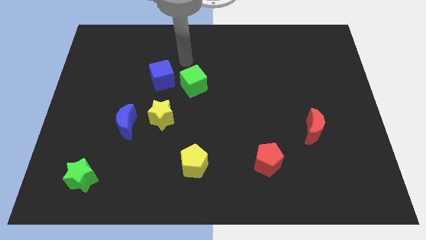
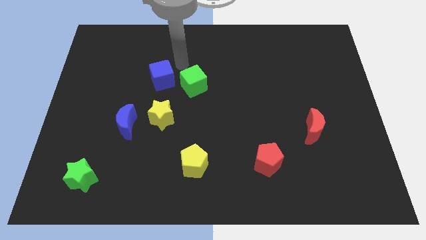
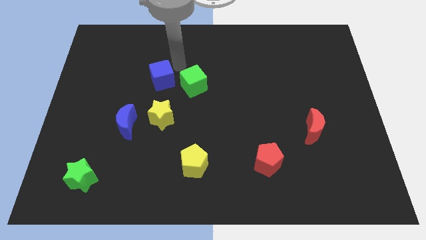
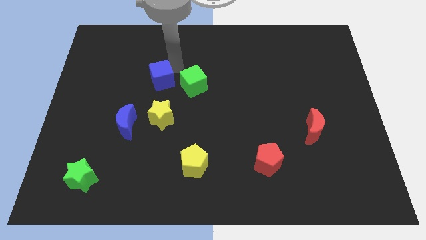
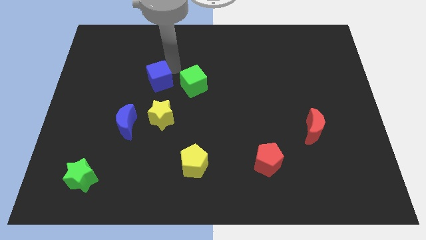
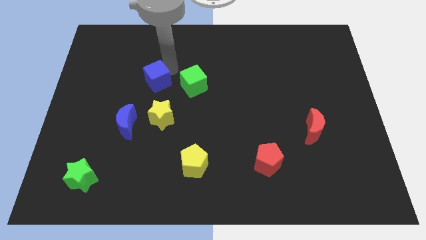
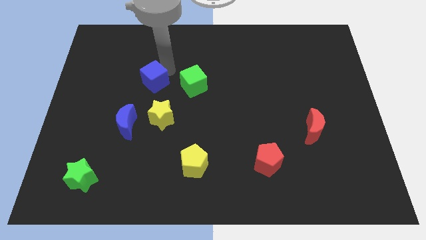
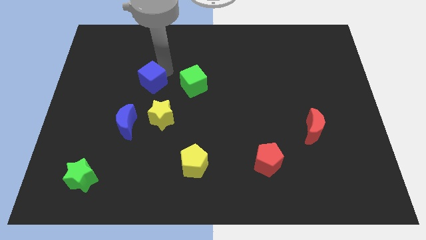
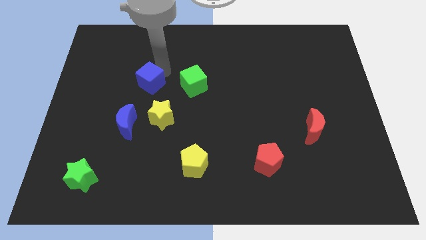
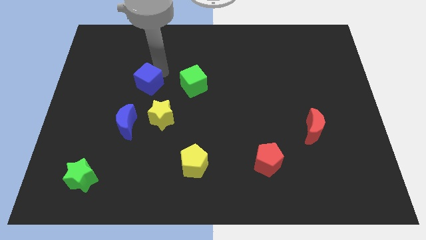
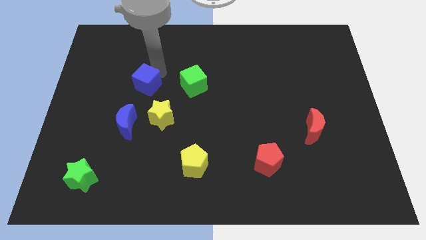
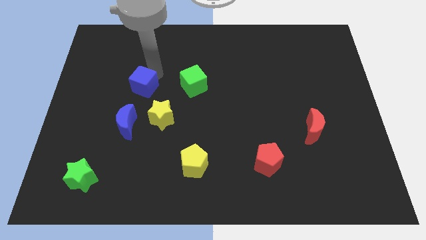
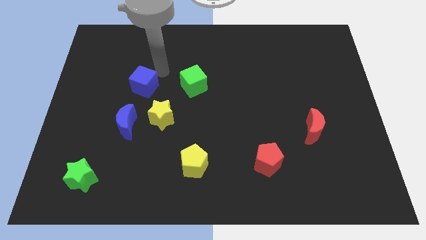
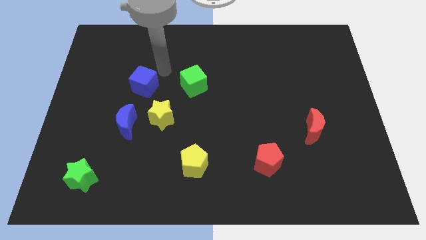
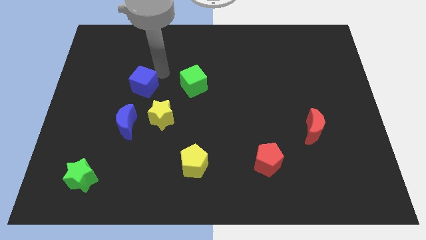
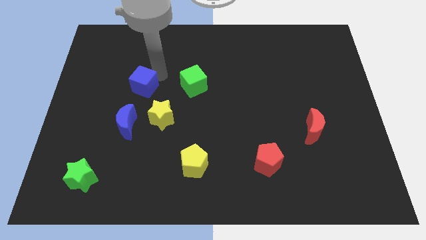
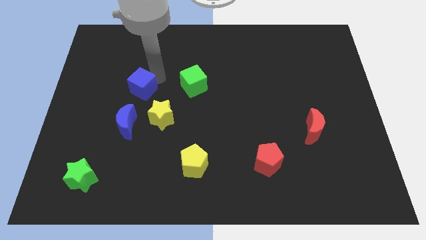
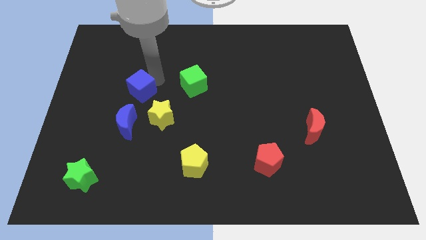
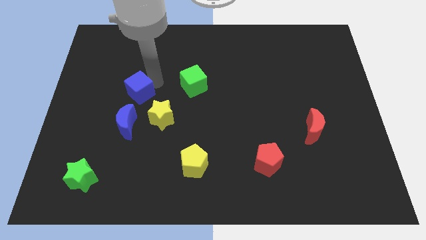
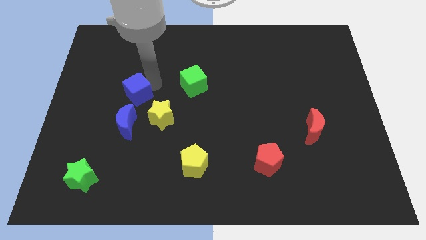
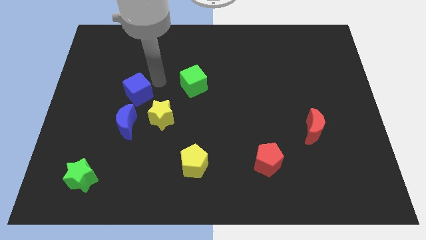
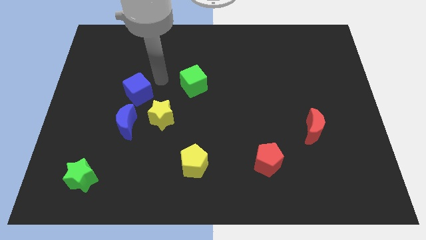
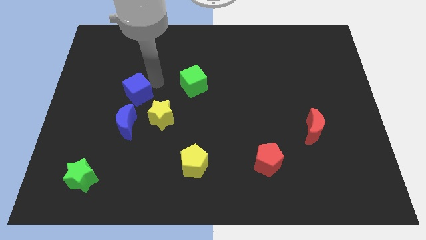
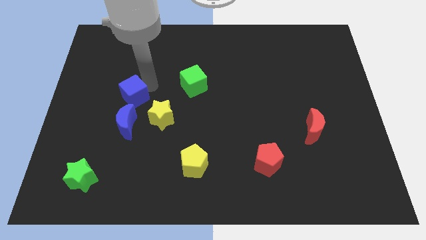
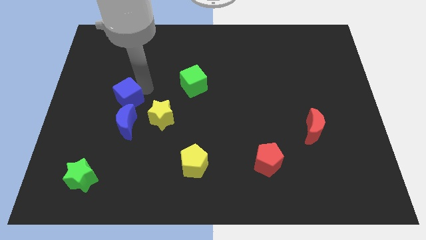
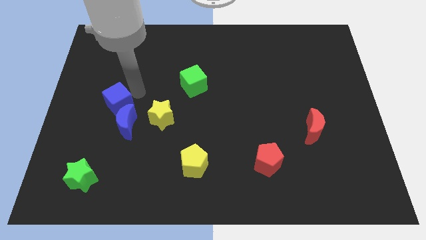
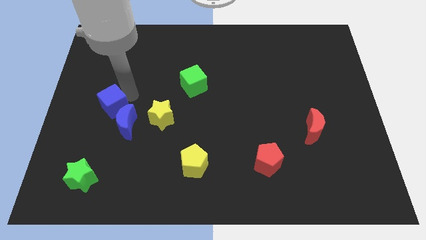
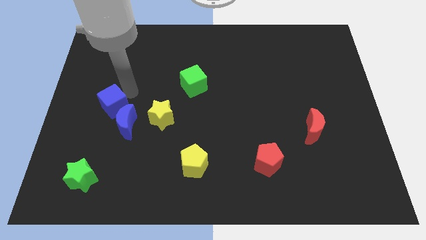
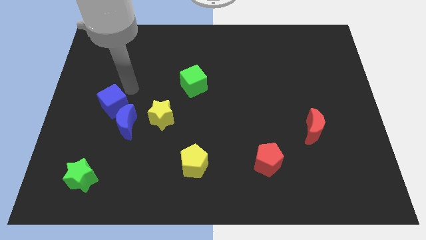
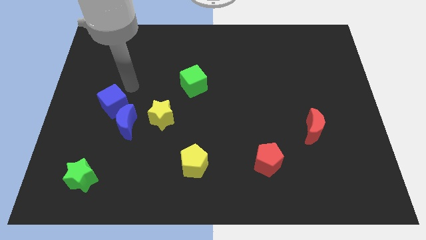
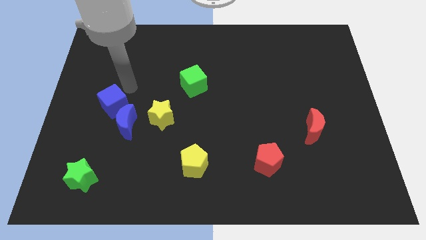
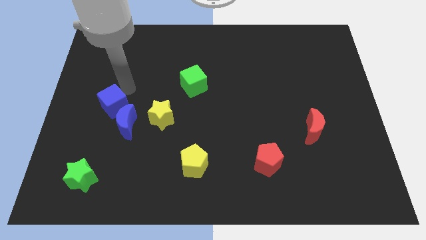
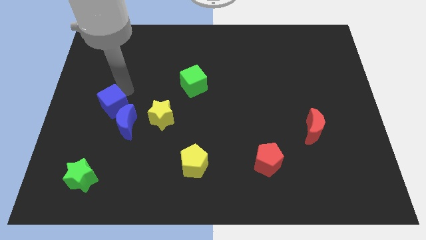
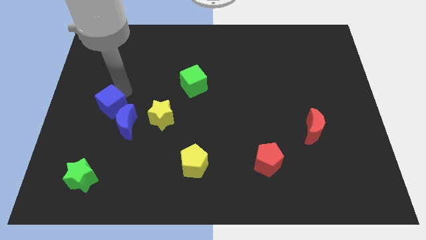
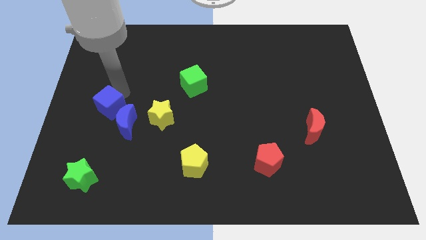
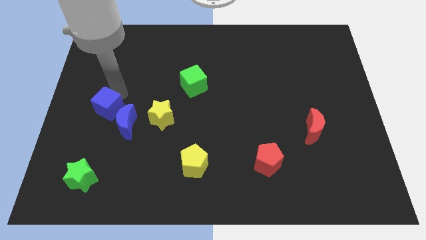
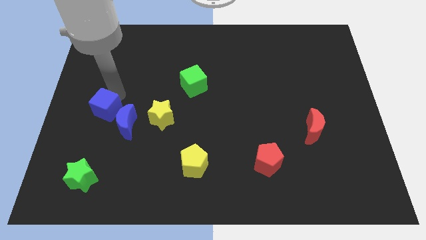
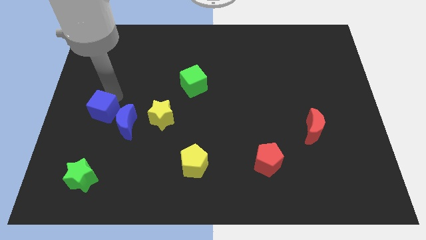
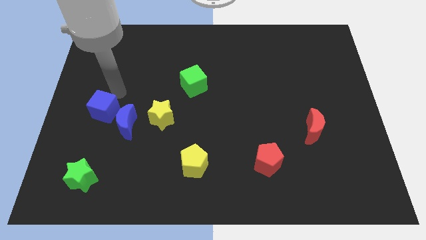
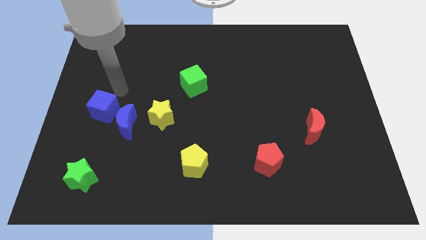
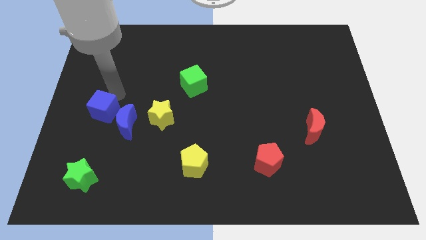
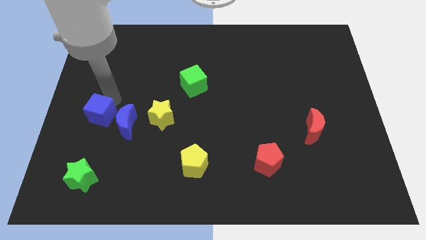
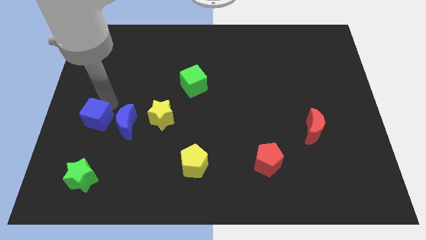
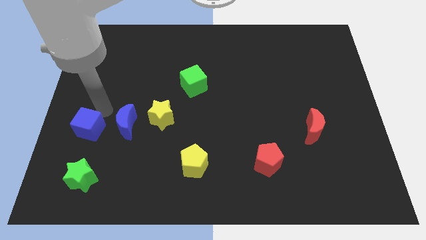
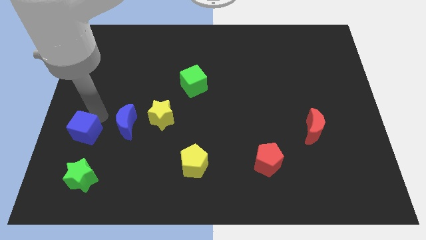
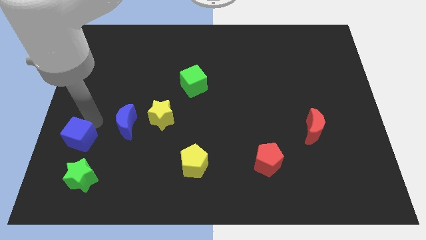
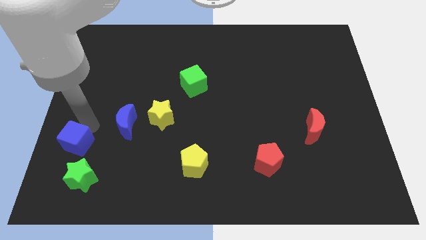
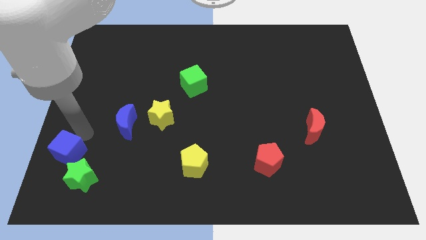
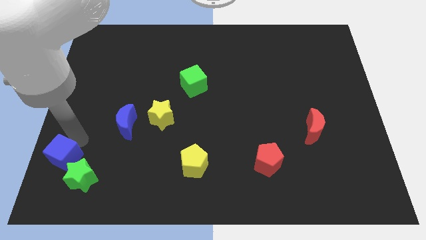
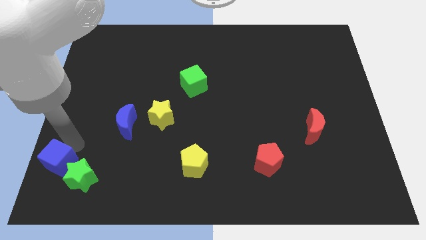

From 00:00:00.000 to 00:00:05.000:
move the blue cube to the bottom left corner

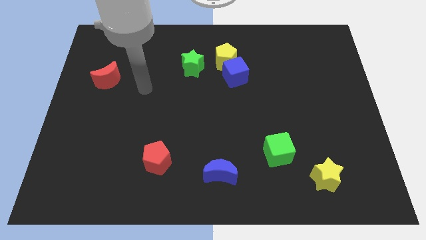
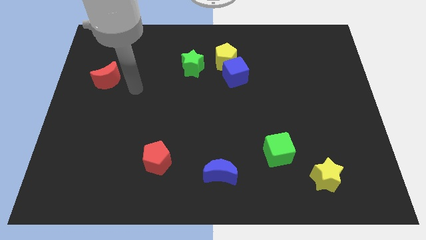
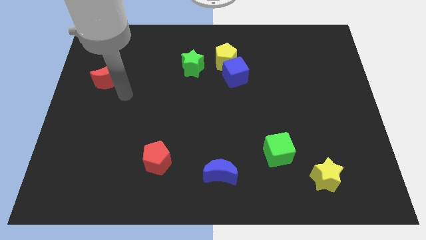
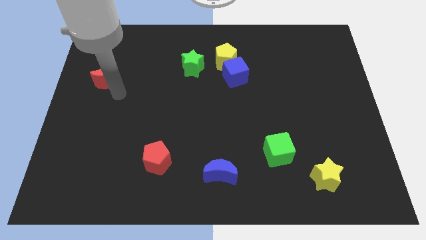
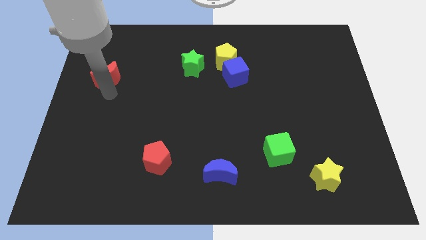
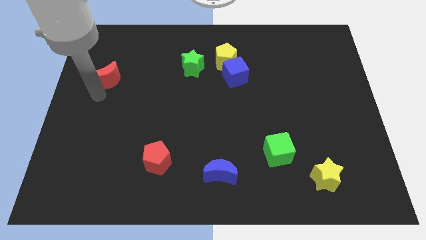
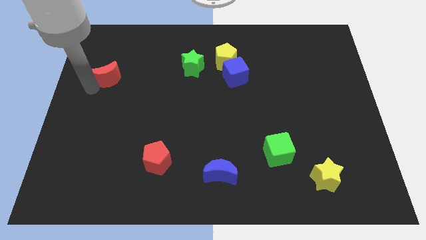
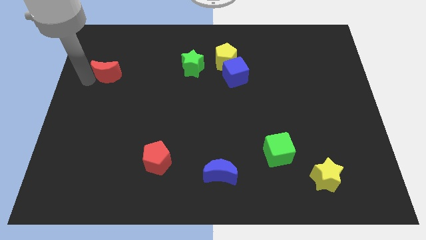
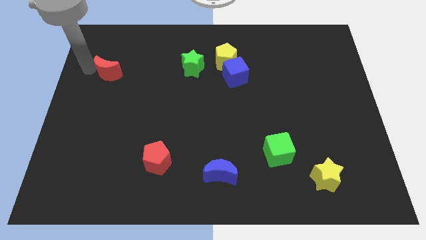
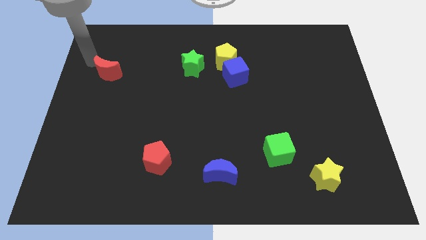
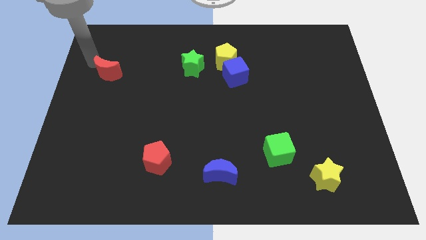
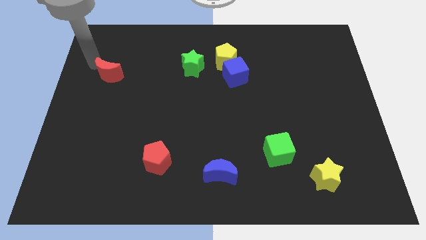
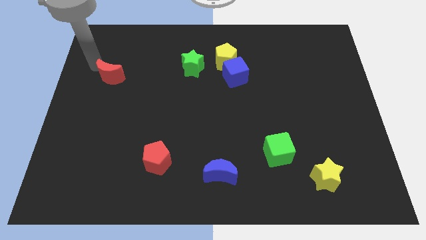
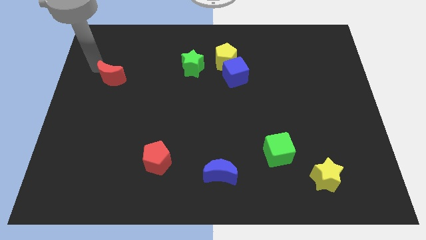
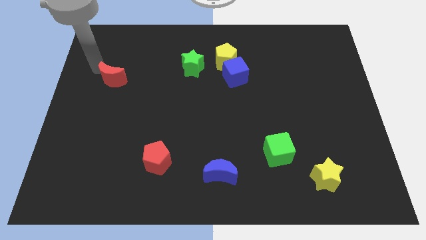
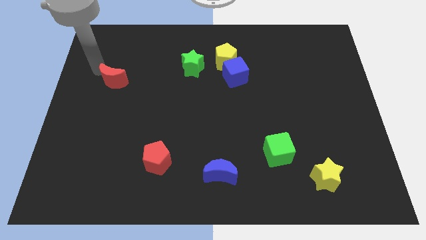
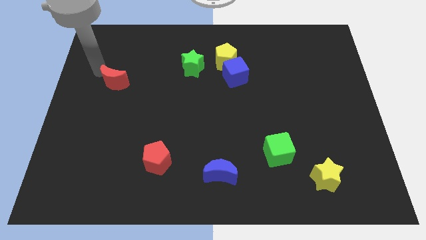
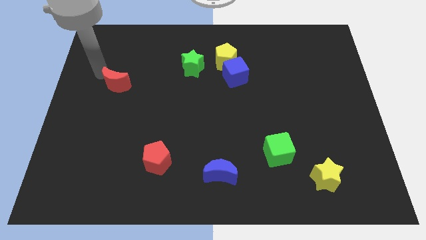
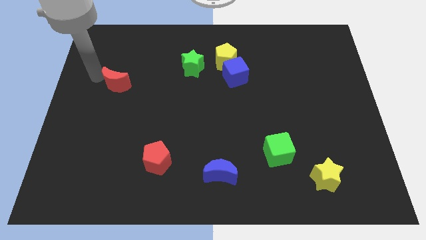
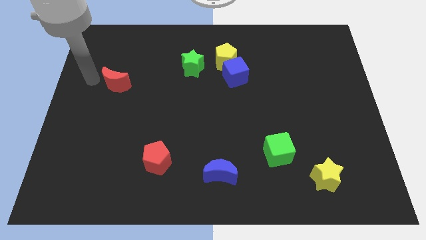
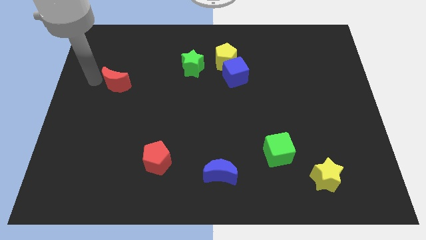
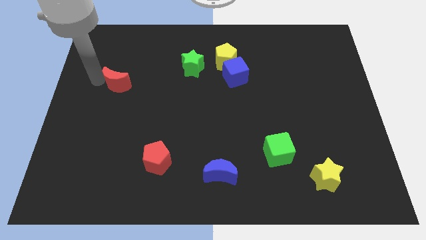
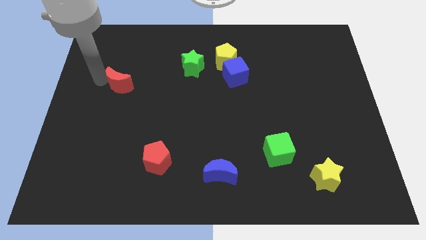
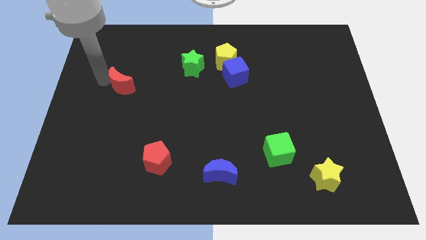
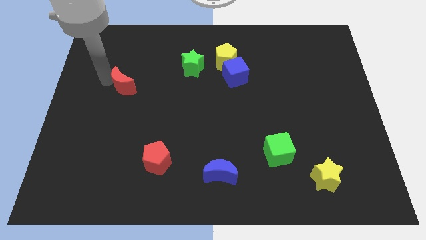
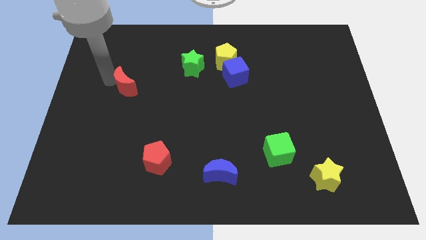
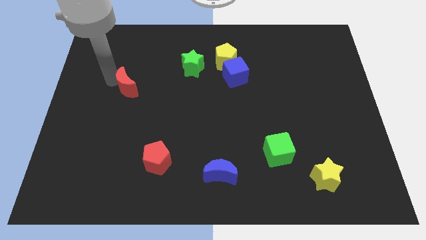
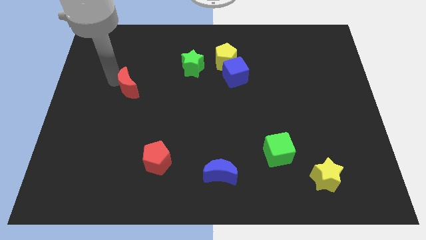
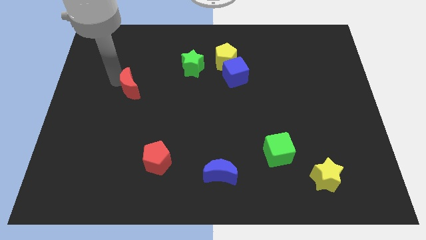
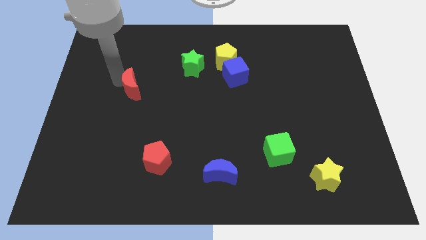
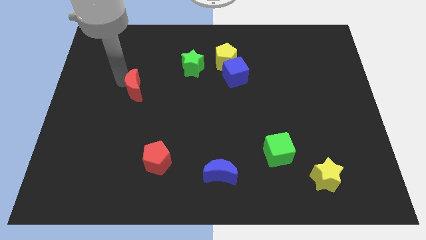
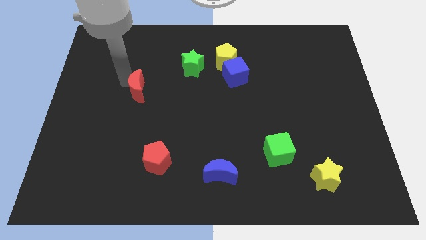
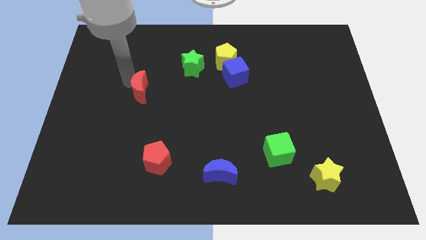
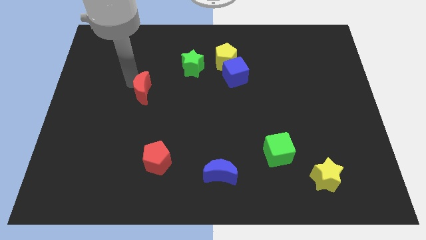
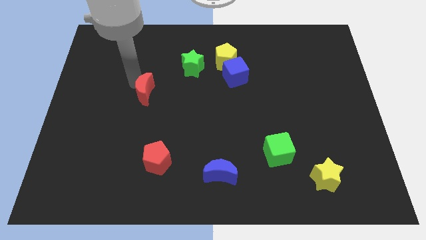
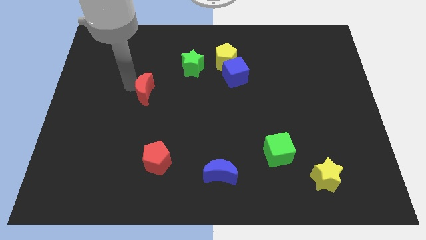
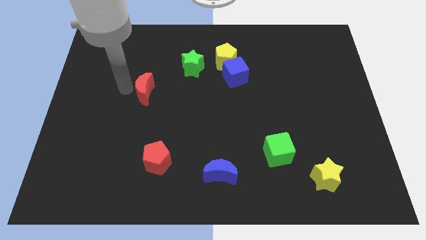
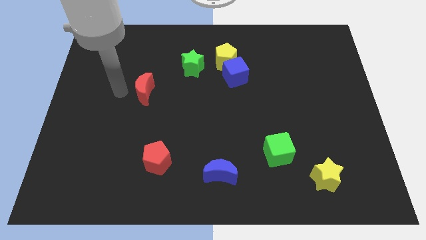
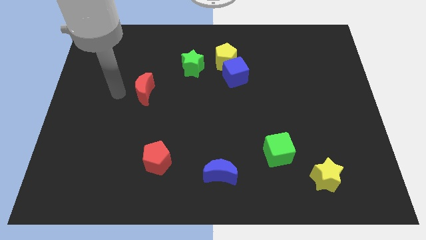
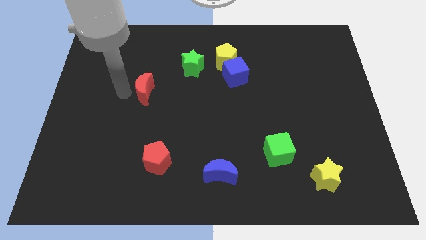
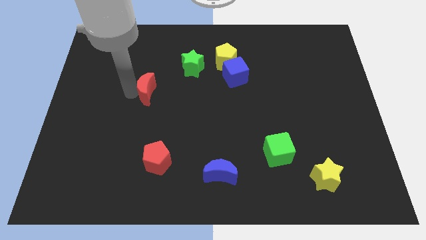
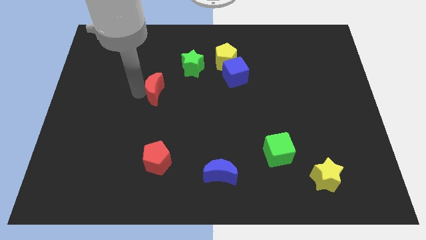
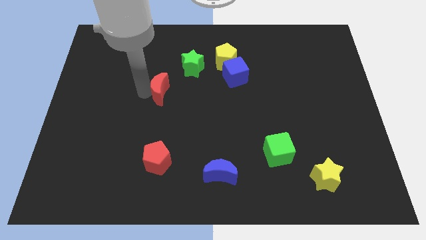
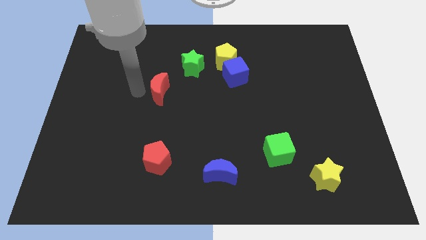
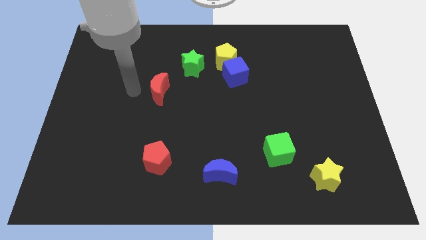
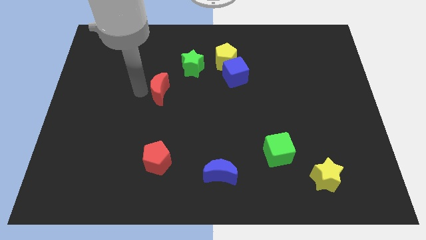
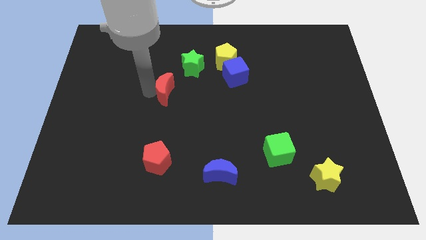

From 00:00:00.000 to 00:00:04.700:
put the red moon to the middle of the board
